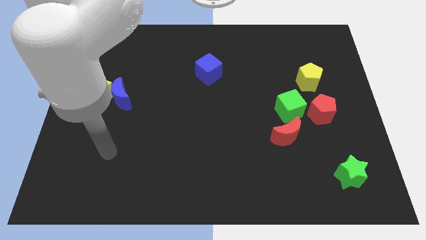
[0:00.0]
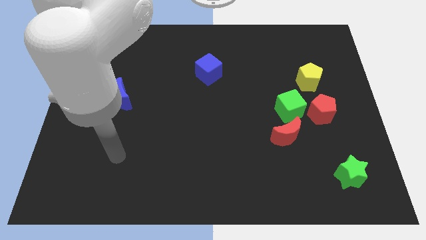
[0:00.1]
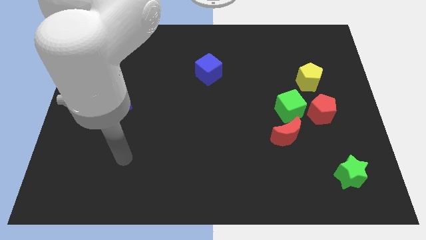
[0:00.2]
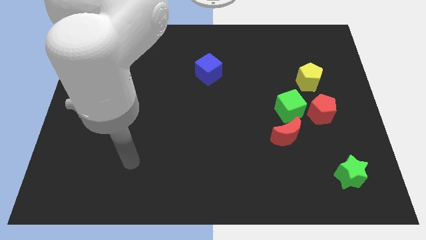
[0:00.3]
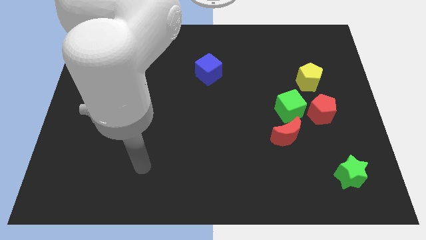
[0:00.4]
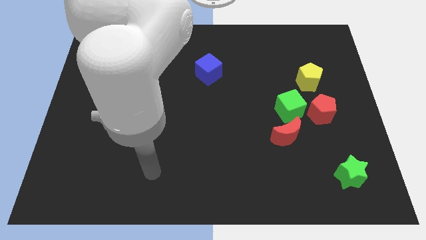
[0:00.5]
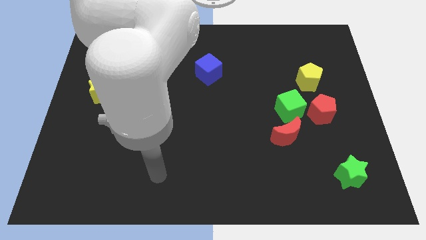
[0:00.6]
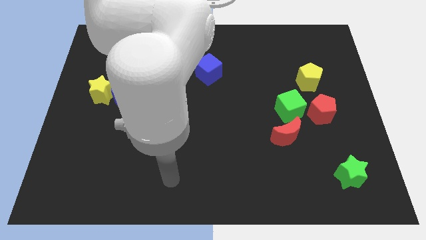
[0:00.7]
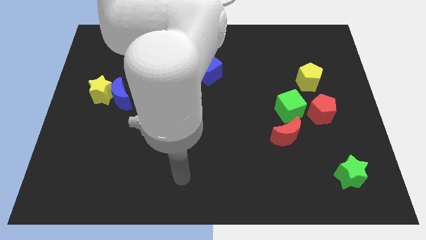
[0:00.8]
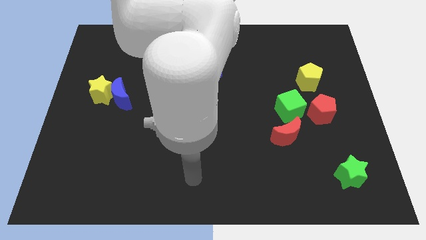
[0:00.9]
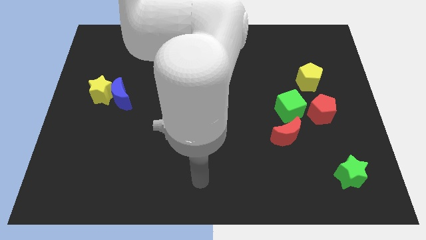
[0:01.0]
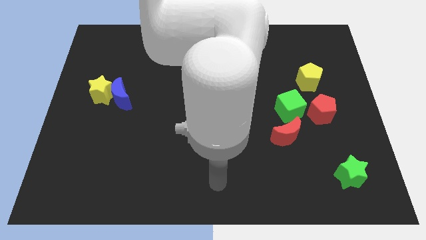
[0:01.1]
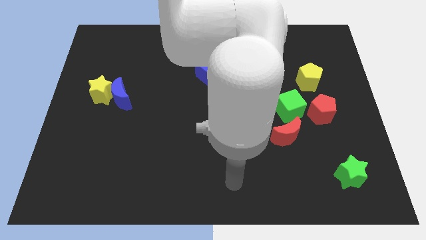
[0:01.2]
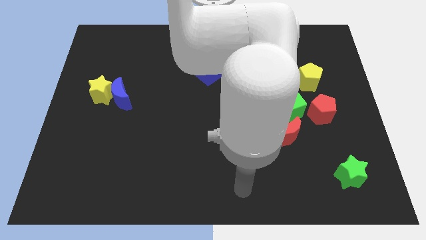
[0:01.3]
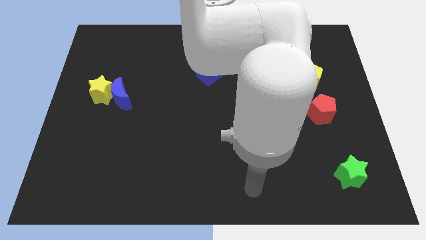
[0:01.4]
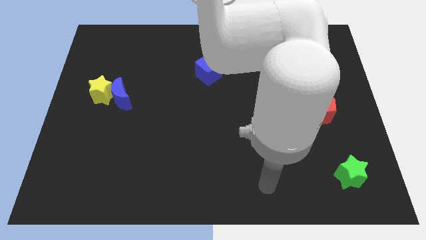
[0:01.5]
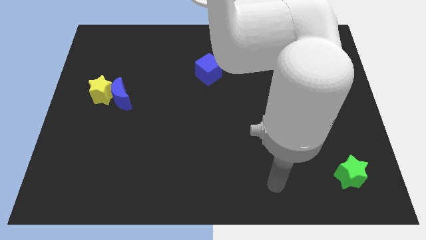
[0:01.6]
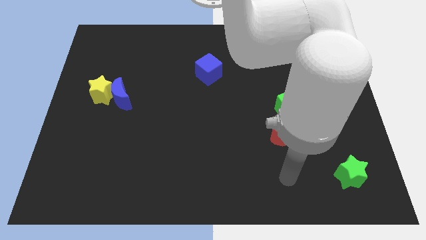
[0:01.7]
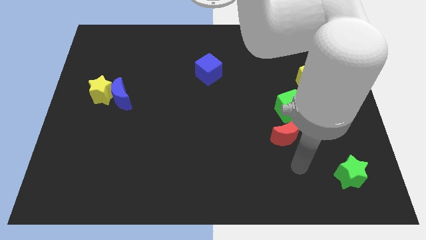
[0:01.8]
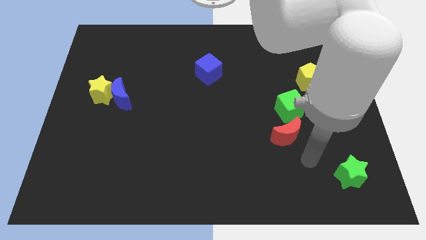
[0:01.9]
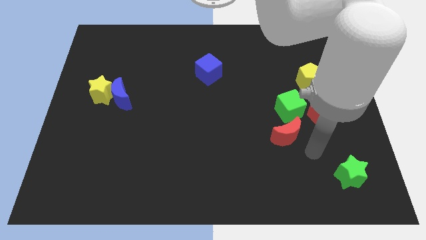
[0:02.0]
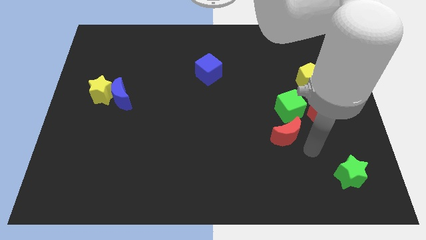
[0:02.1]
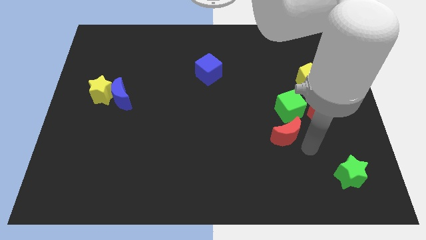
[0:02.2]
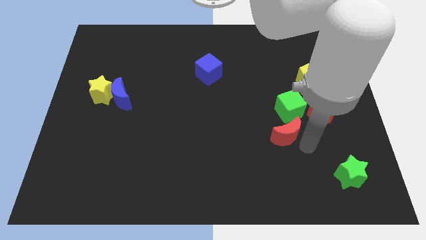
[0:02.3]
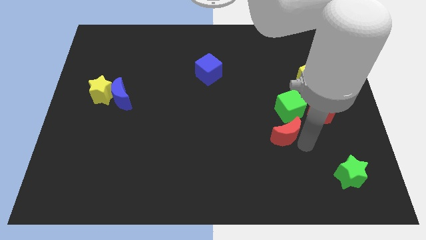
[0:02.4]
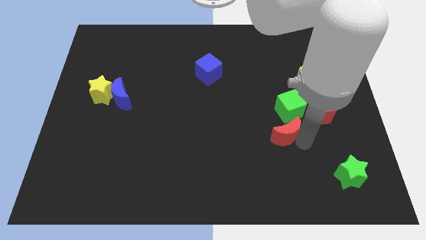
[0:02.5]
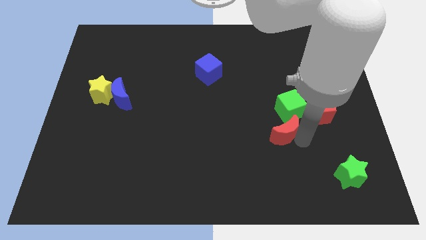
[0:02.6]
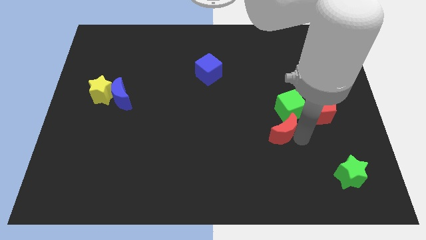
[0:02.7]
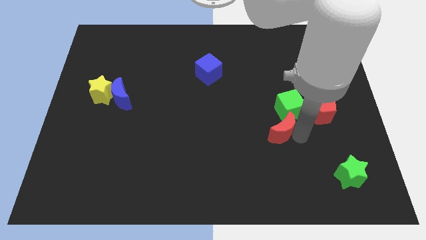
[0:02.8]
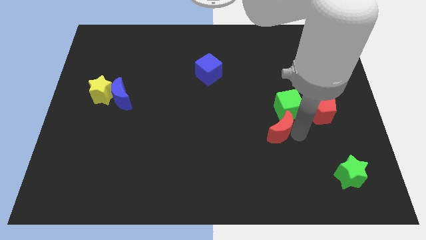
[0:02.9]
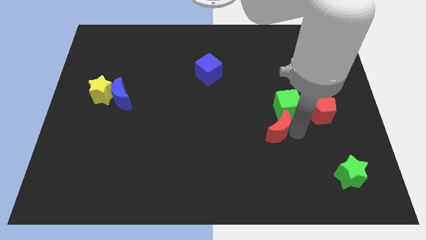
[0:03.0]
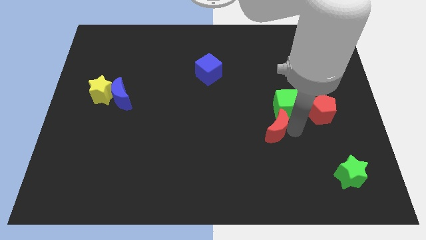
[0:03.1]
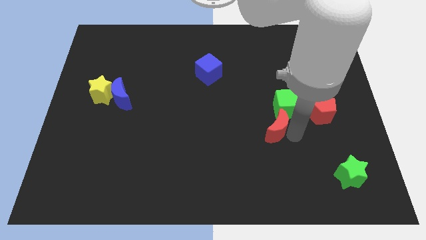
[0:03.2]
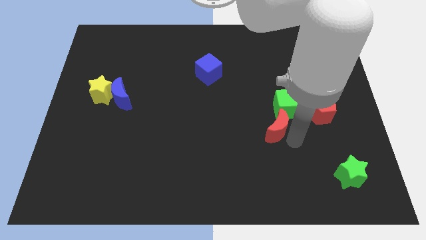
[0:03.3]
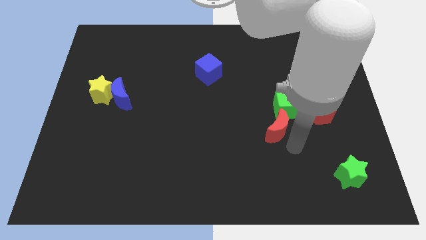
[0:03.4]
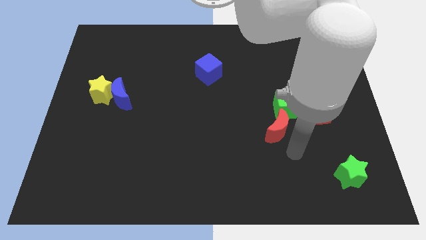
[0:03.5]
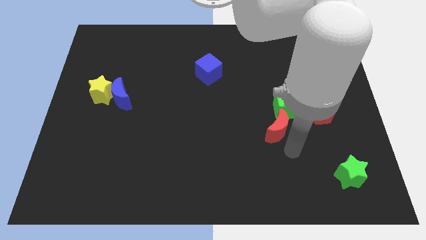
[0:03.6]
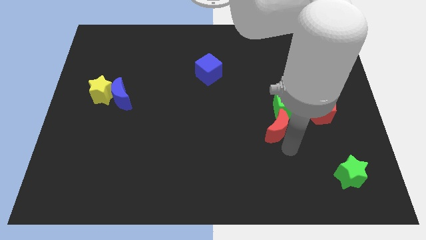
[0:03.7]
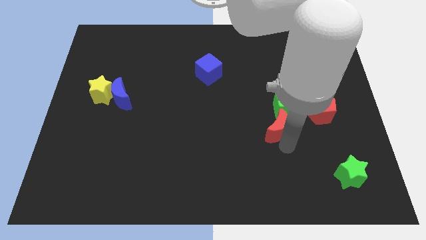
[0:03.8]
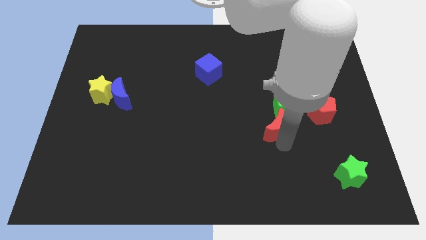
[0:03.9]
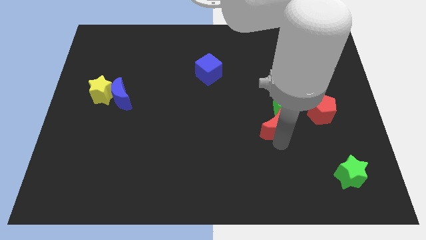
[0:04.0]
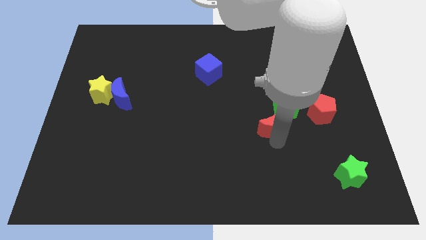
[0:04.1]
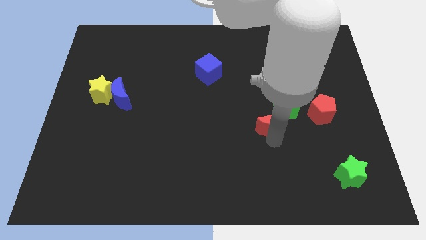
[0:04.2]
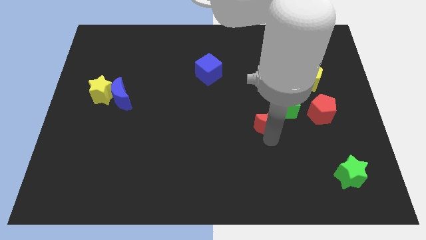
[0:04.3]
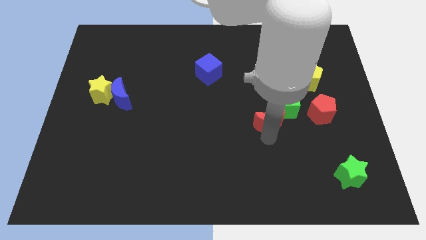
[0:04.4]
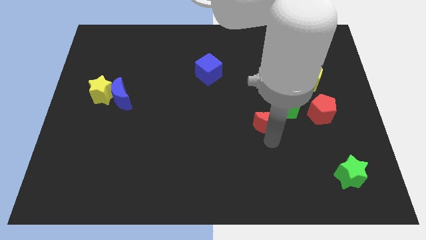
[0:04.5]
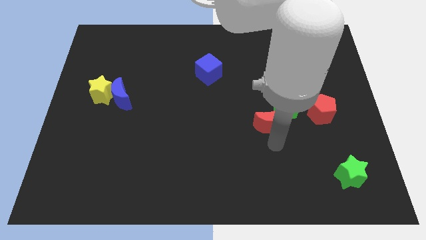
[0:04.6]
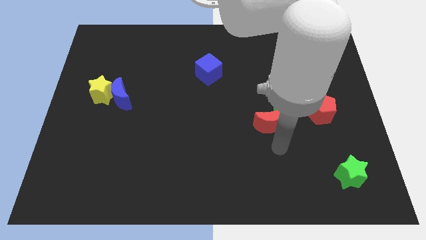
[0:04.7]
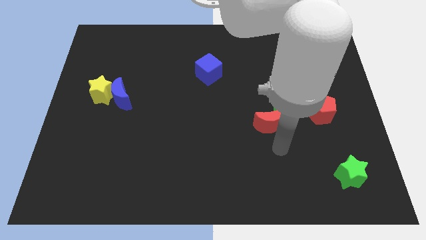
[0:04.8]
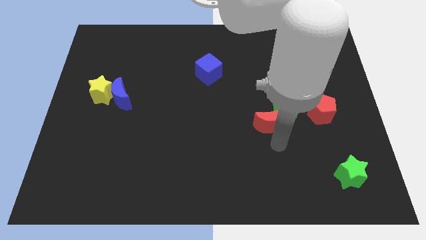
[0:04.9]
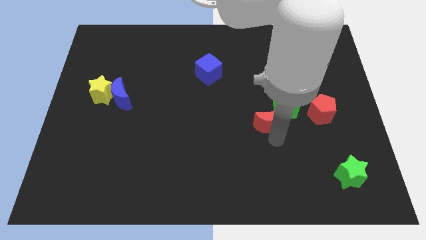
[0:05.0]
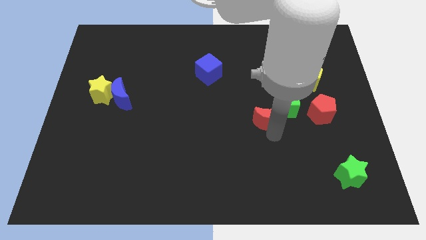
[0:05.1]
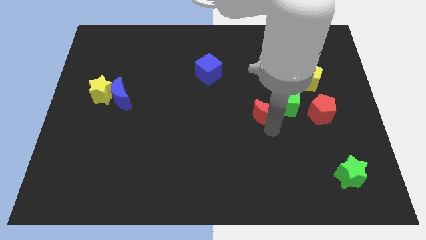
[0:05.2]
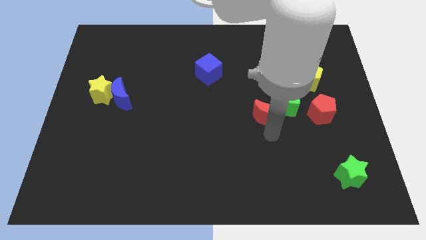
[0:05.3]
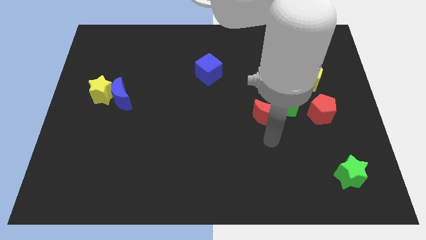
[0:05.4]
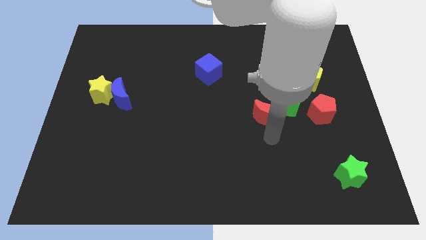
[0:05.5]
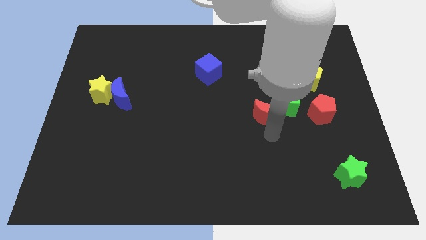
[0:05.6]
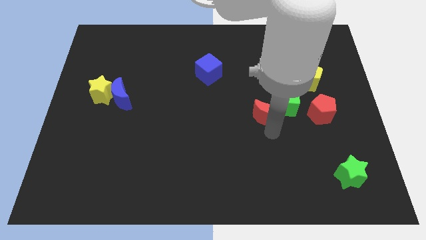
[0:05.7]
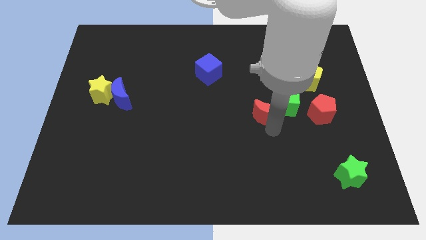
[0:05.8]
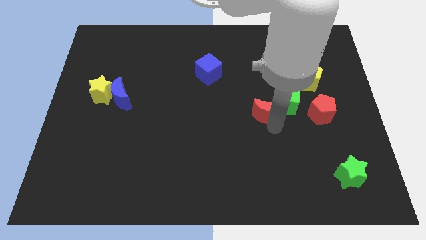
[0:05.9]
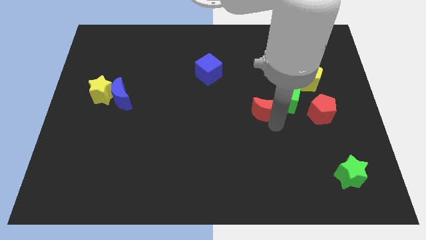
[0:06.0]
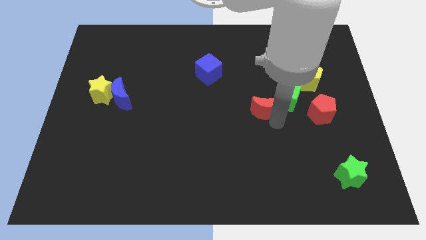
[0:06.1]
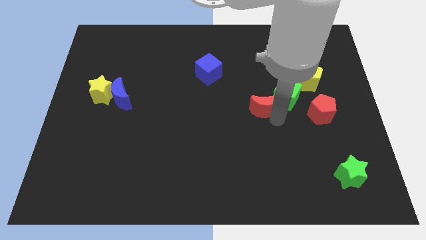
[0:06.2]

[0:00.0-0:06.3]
move the red moon up a little

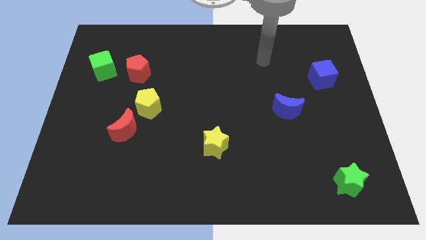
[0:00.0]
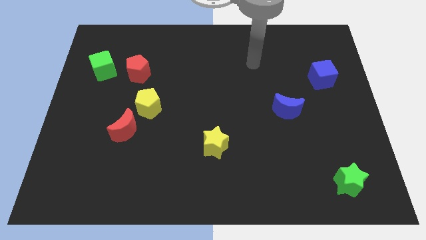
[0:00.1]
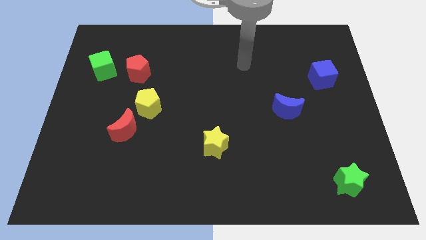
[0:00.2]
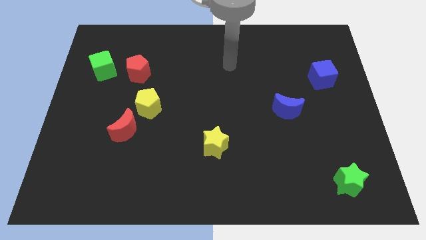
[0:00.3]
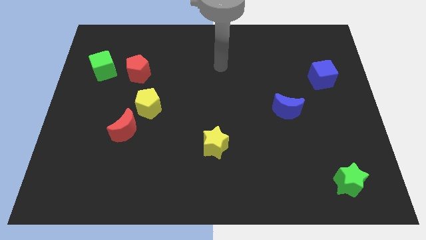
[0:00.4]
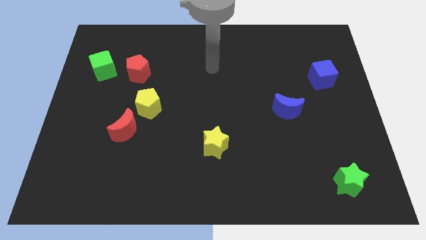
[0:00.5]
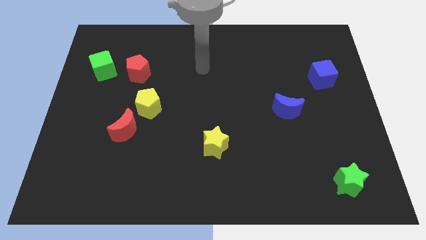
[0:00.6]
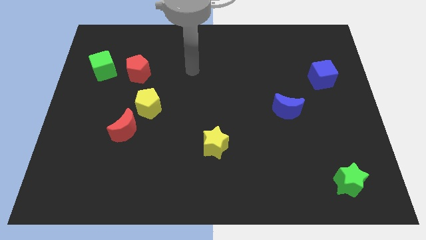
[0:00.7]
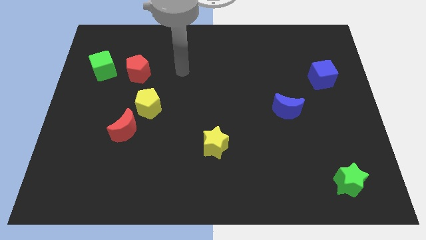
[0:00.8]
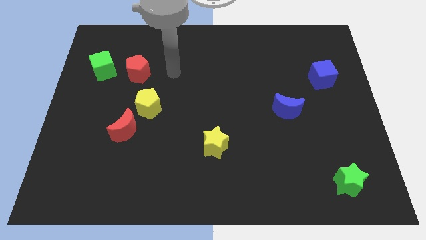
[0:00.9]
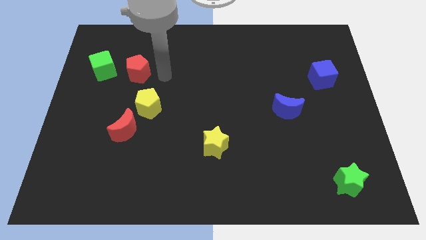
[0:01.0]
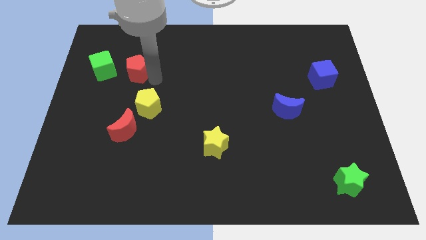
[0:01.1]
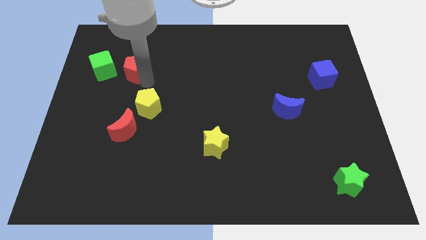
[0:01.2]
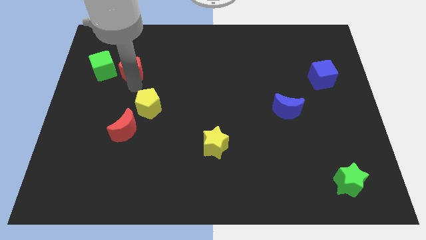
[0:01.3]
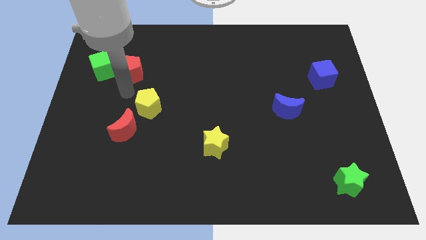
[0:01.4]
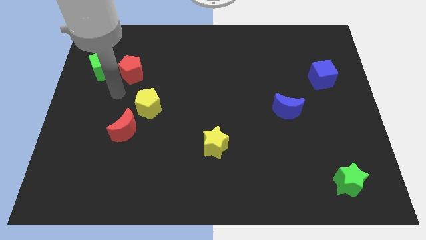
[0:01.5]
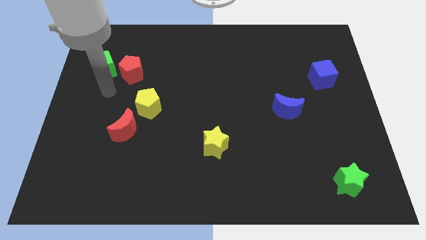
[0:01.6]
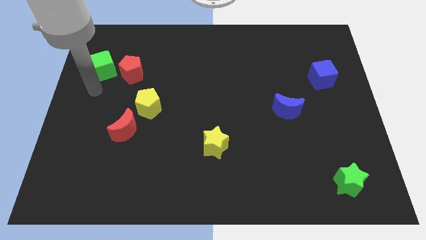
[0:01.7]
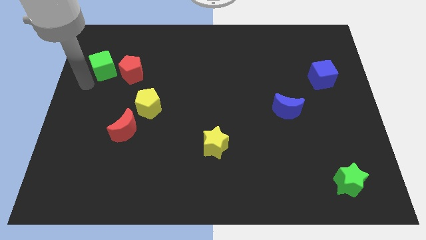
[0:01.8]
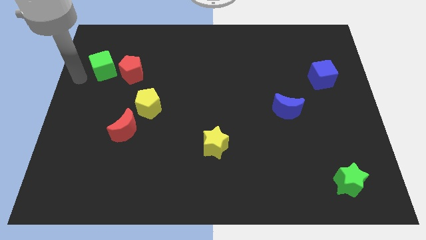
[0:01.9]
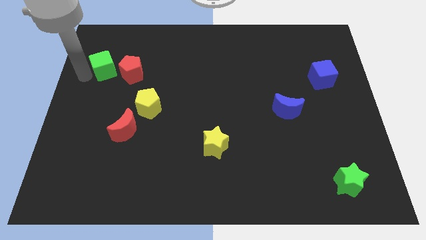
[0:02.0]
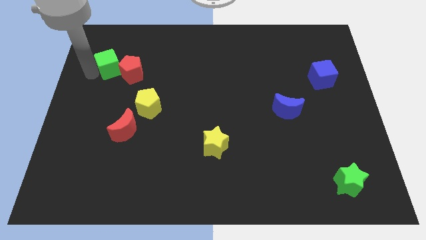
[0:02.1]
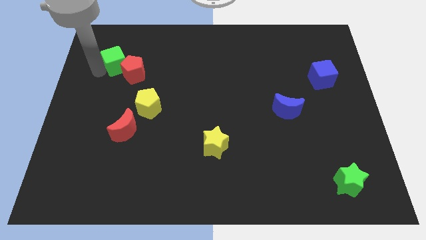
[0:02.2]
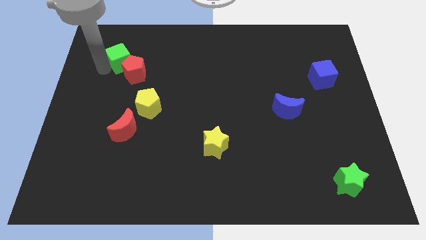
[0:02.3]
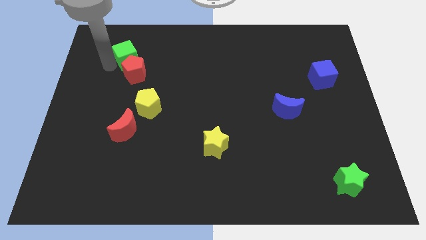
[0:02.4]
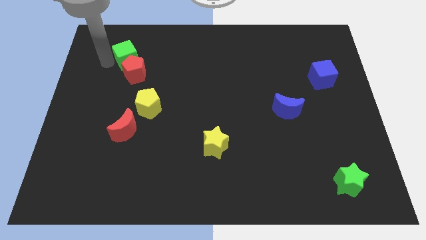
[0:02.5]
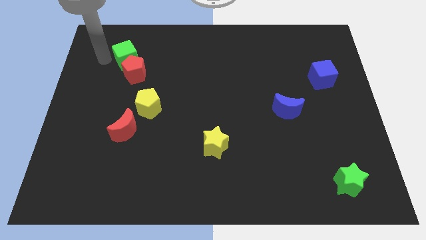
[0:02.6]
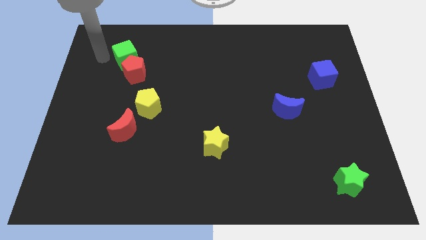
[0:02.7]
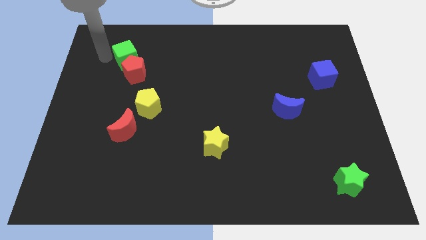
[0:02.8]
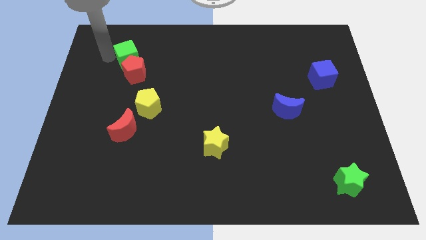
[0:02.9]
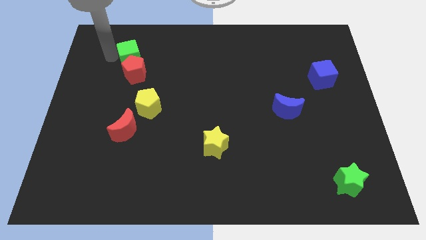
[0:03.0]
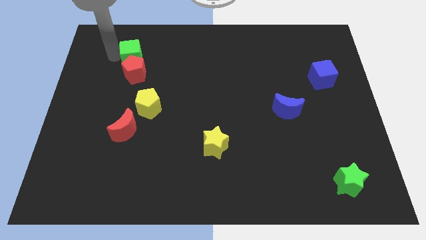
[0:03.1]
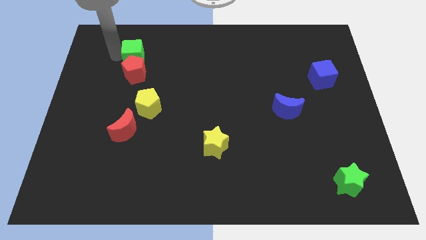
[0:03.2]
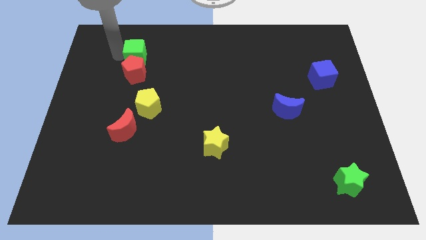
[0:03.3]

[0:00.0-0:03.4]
slide the green cube a little right
